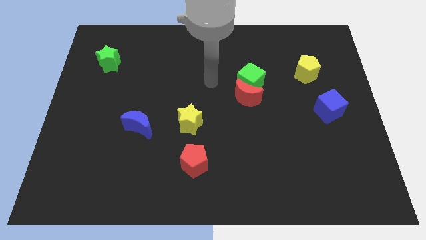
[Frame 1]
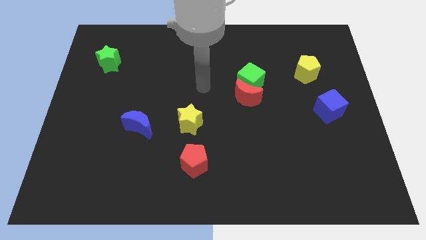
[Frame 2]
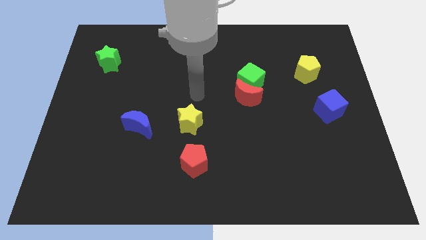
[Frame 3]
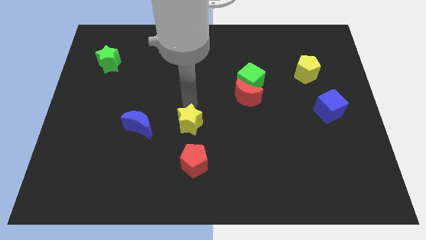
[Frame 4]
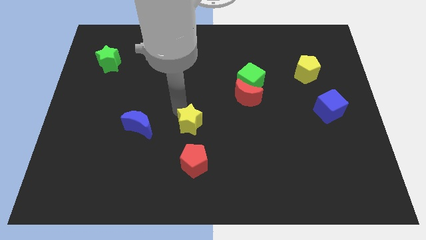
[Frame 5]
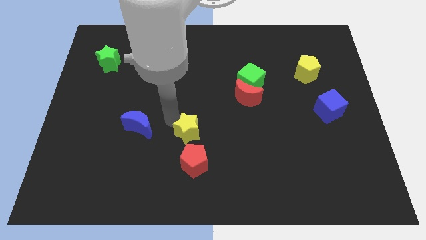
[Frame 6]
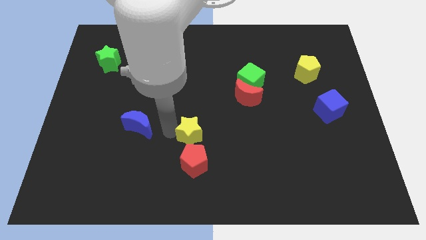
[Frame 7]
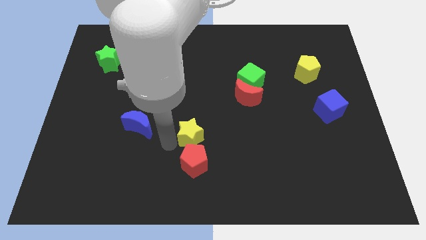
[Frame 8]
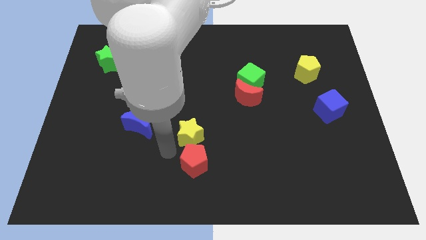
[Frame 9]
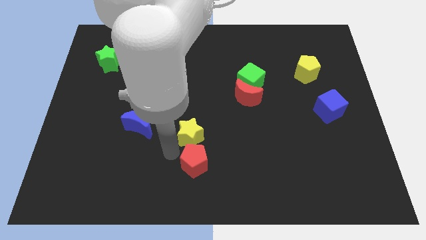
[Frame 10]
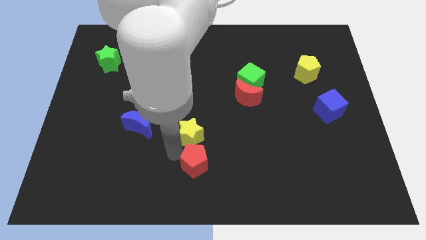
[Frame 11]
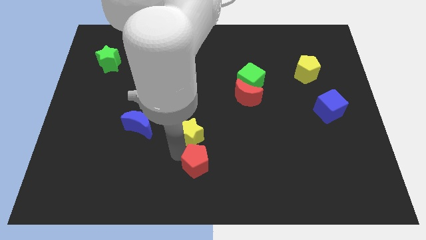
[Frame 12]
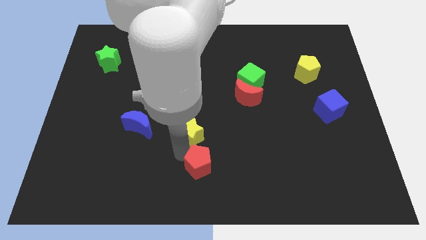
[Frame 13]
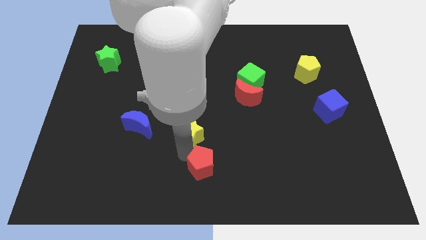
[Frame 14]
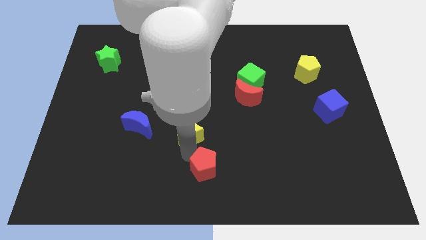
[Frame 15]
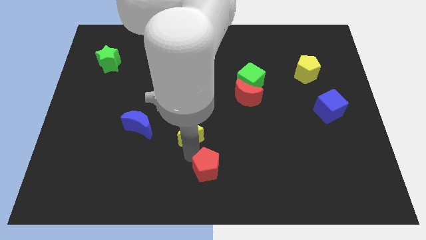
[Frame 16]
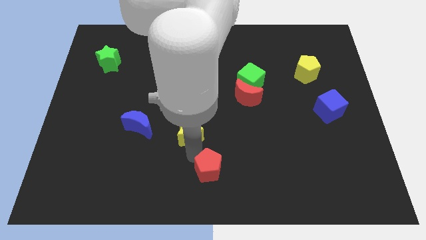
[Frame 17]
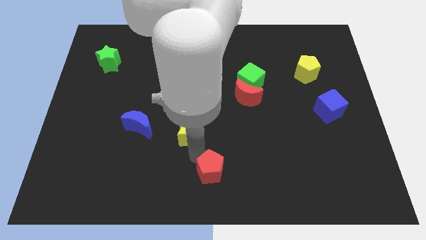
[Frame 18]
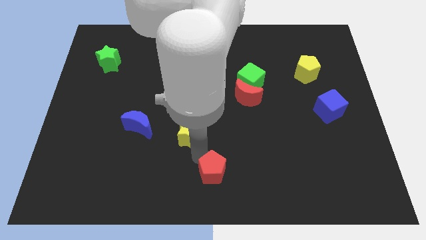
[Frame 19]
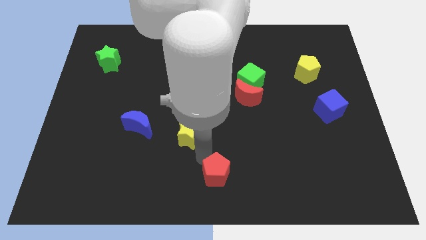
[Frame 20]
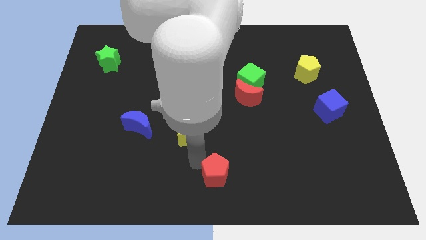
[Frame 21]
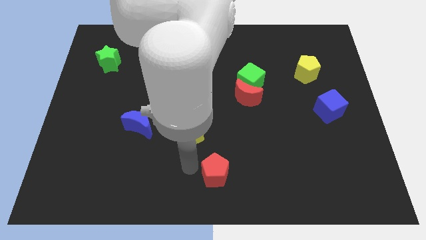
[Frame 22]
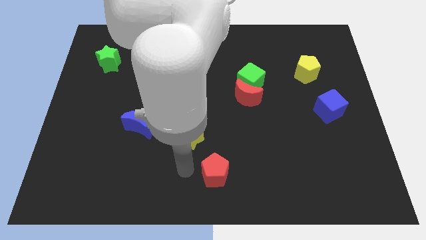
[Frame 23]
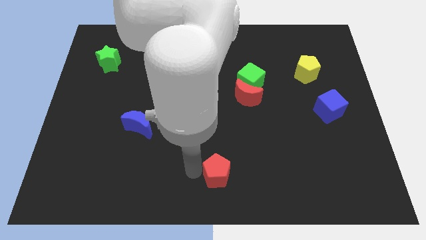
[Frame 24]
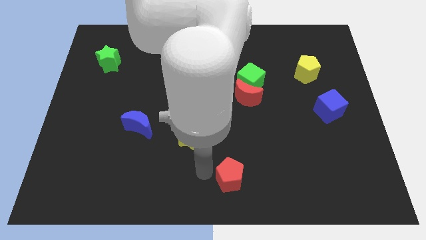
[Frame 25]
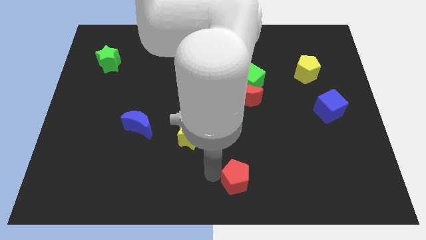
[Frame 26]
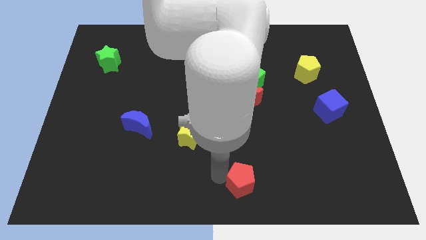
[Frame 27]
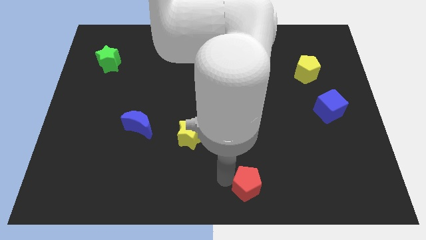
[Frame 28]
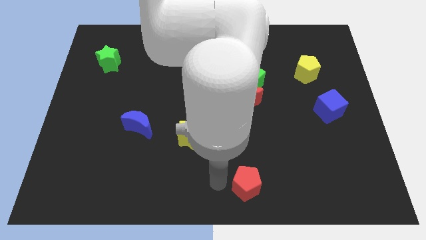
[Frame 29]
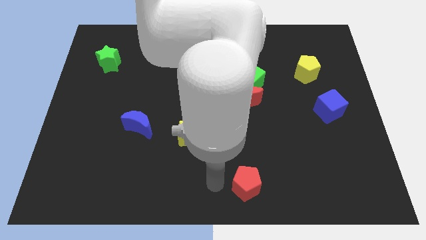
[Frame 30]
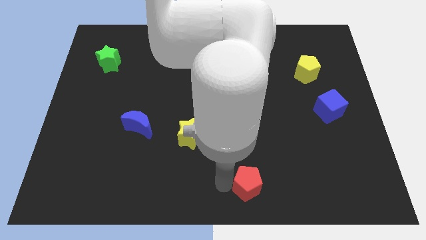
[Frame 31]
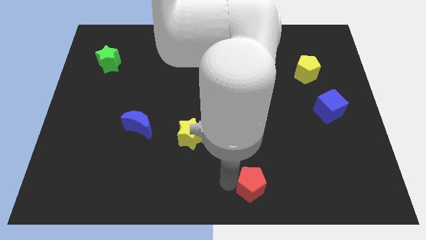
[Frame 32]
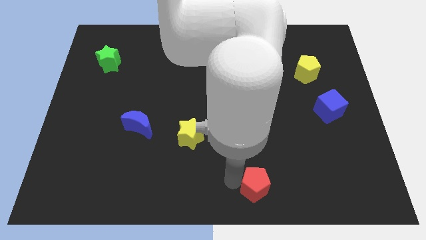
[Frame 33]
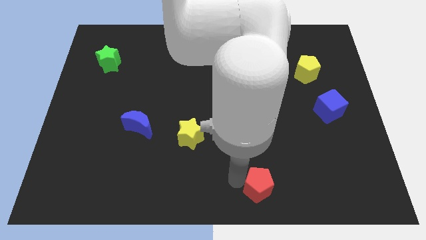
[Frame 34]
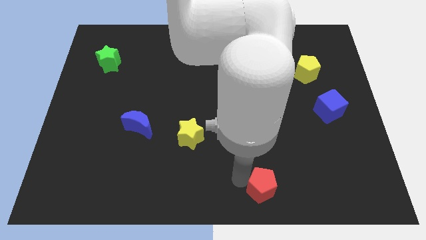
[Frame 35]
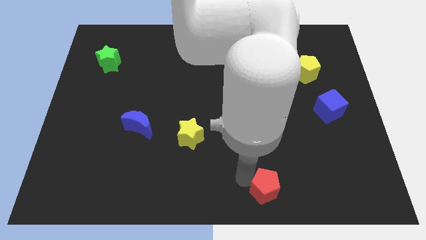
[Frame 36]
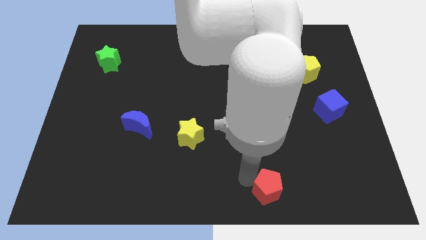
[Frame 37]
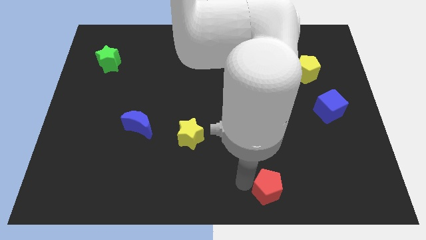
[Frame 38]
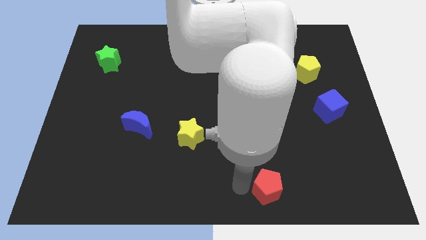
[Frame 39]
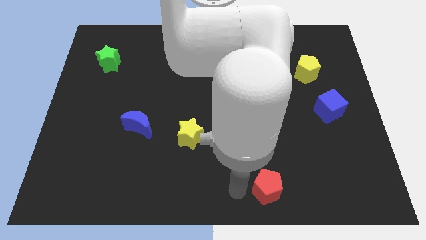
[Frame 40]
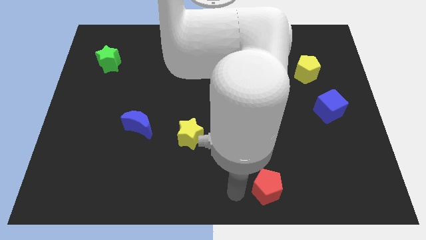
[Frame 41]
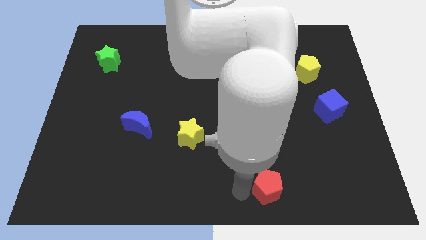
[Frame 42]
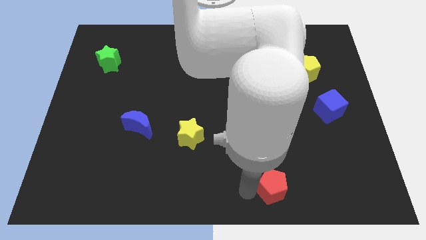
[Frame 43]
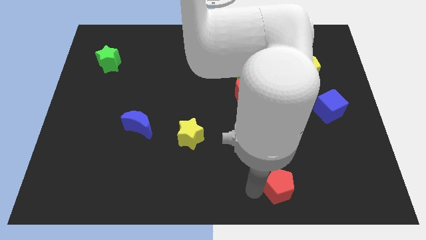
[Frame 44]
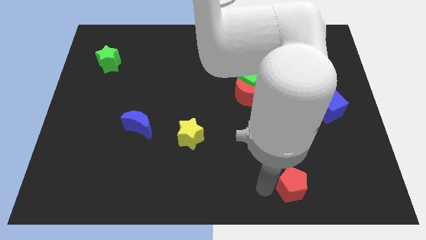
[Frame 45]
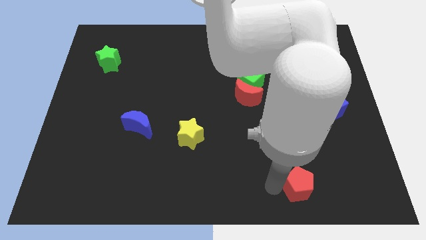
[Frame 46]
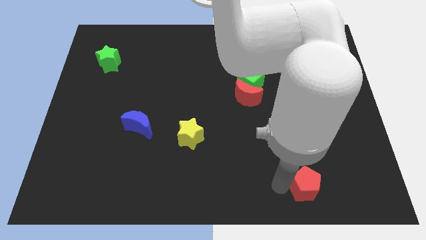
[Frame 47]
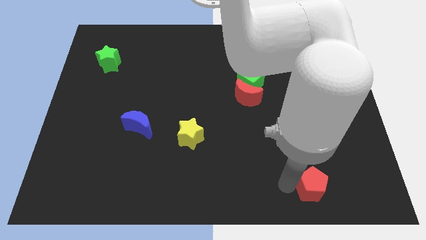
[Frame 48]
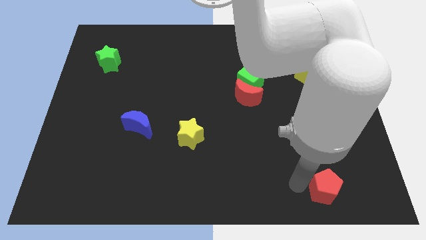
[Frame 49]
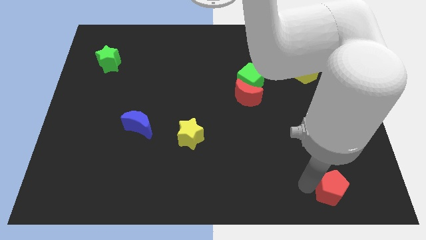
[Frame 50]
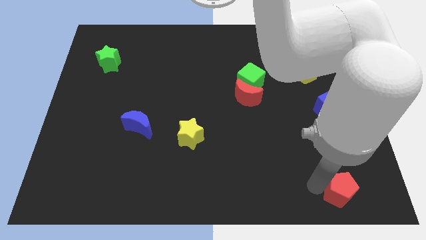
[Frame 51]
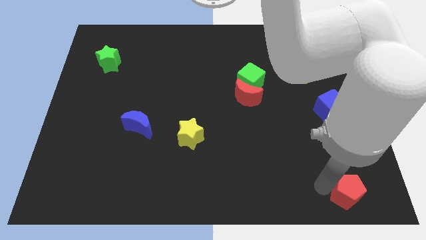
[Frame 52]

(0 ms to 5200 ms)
move the red pentagon to the bottom right

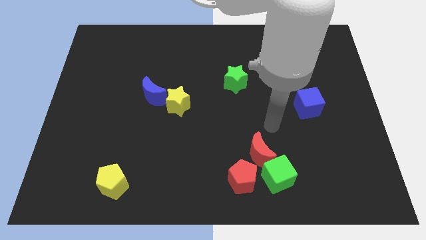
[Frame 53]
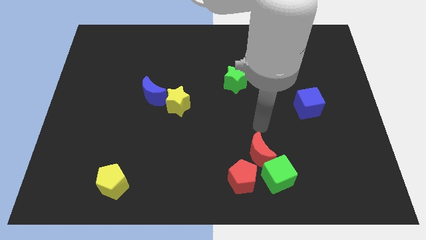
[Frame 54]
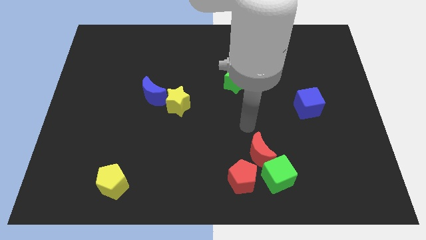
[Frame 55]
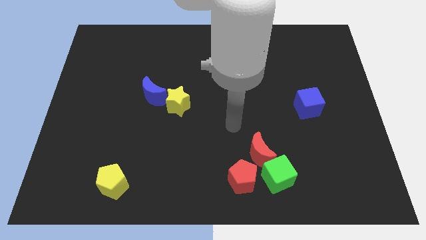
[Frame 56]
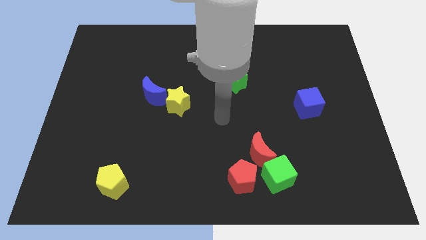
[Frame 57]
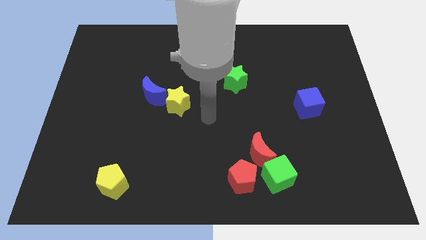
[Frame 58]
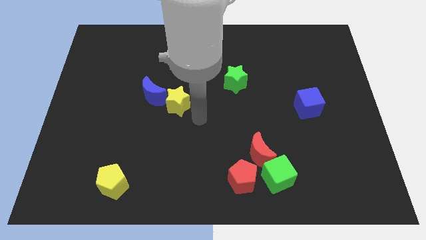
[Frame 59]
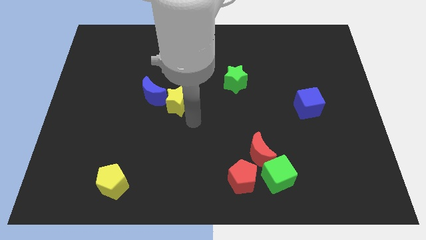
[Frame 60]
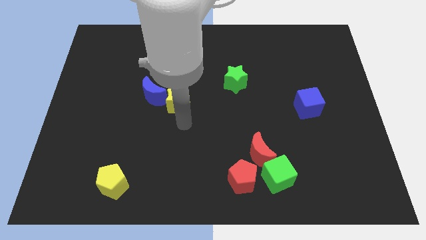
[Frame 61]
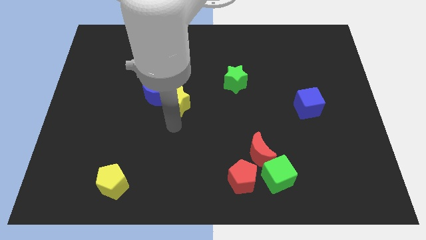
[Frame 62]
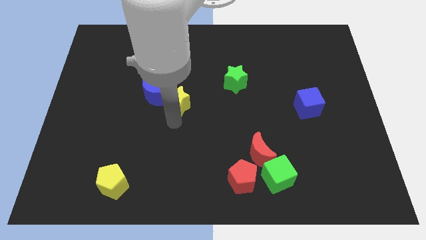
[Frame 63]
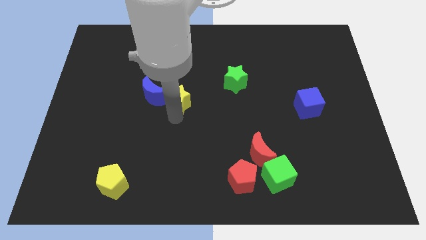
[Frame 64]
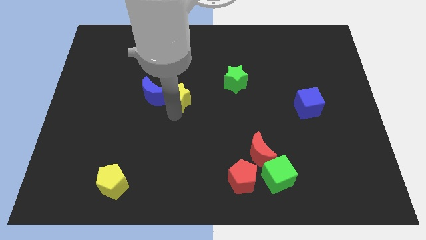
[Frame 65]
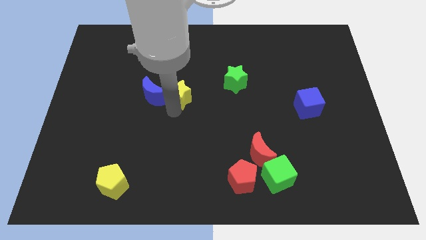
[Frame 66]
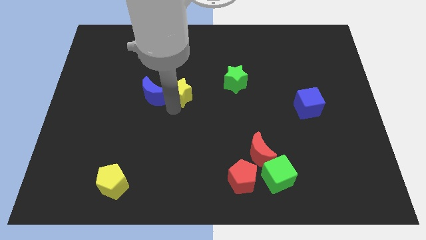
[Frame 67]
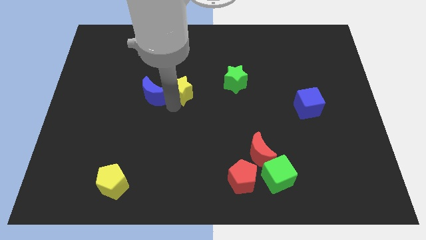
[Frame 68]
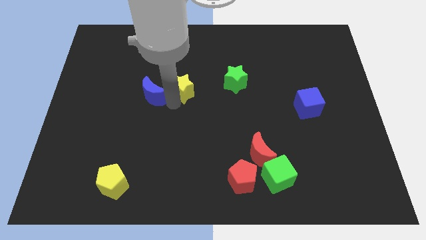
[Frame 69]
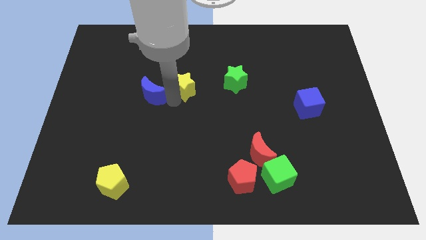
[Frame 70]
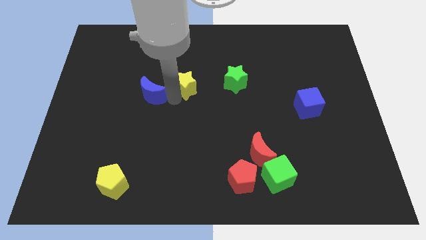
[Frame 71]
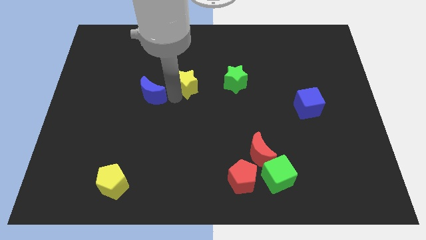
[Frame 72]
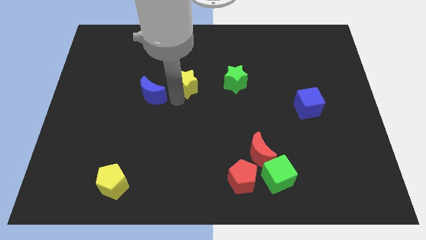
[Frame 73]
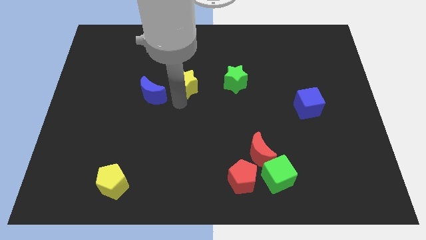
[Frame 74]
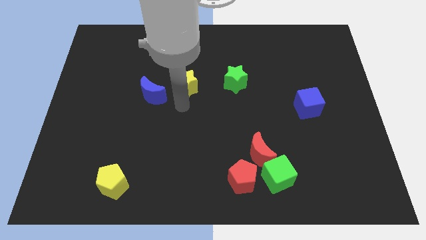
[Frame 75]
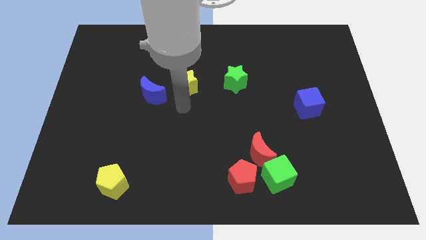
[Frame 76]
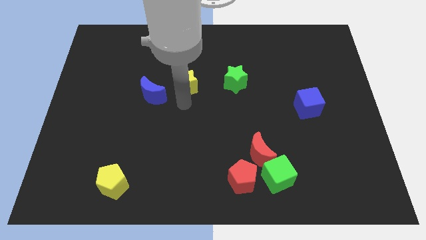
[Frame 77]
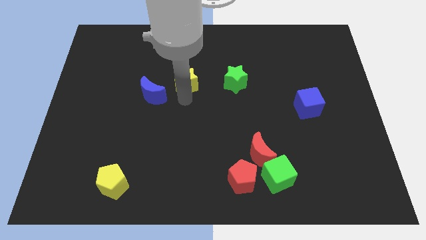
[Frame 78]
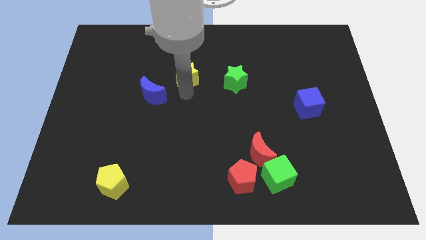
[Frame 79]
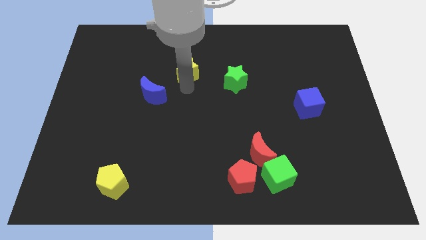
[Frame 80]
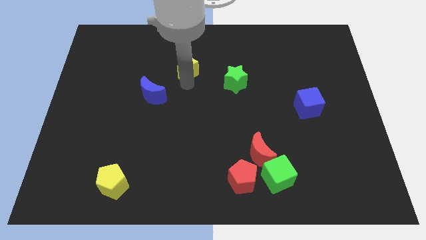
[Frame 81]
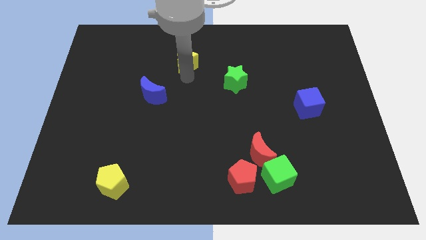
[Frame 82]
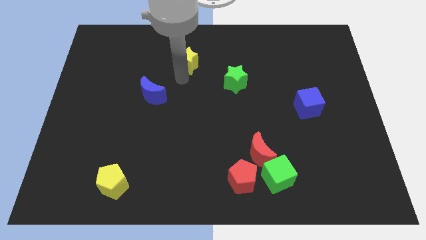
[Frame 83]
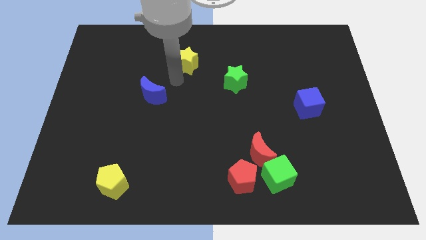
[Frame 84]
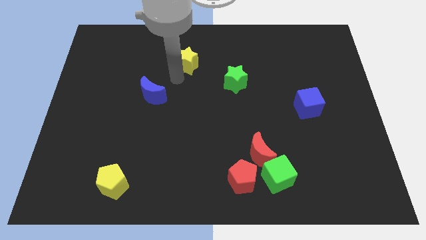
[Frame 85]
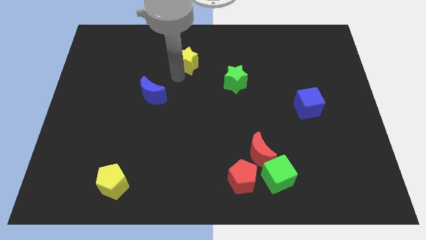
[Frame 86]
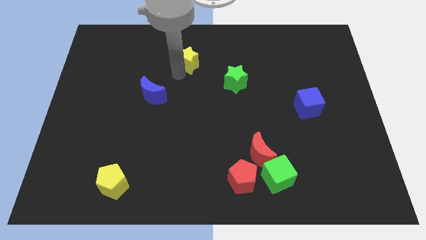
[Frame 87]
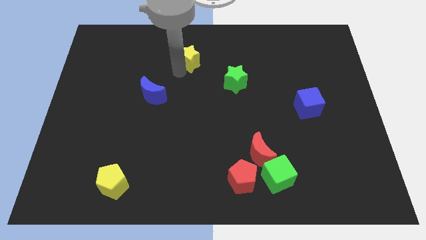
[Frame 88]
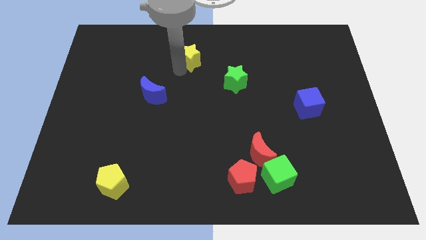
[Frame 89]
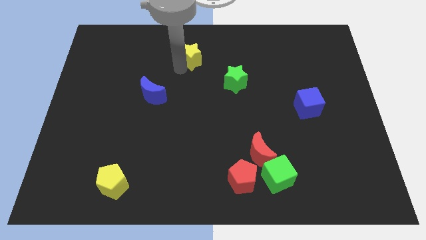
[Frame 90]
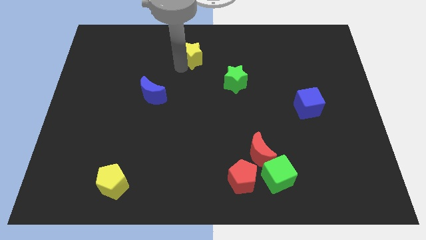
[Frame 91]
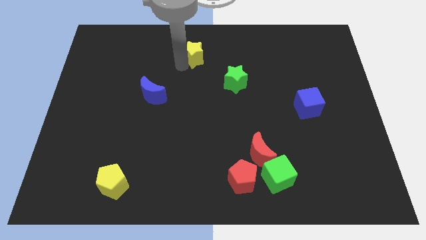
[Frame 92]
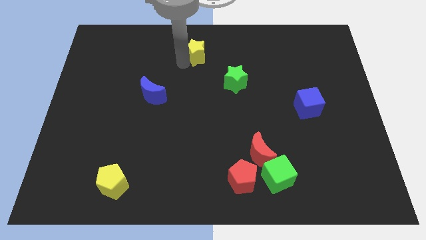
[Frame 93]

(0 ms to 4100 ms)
push the yellow star to the towards your base
